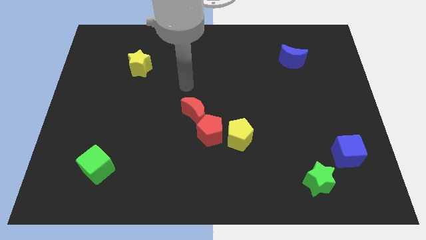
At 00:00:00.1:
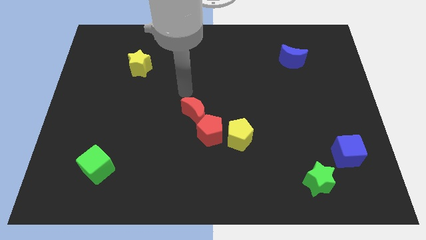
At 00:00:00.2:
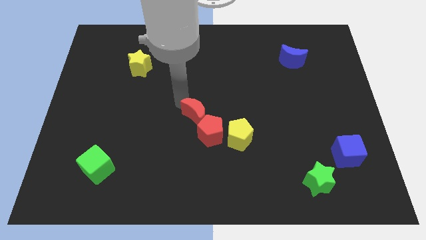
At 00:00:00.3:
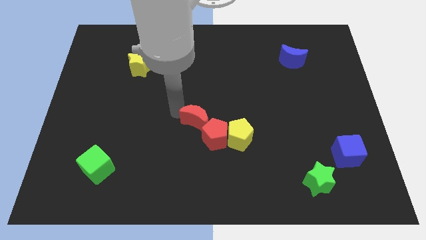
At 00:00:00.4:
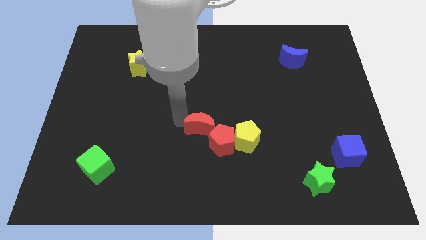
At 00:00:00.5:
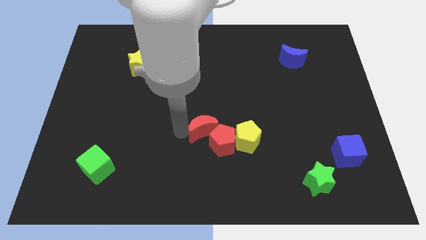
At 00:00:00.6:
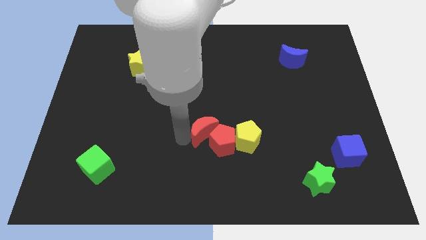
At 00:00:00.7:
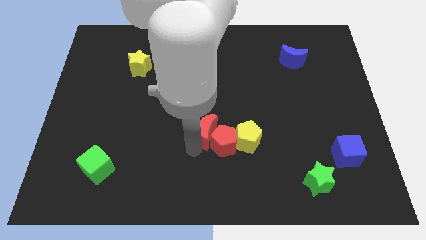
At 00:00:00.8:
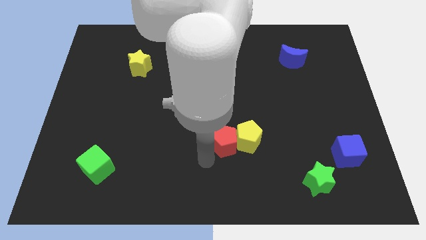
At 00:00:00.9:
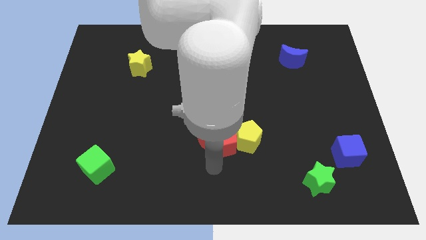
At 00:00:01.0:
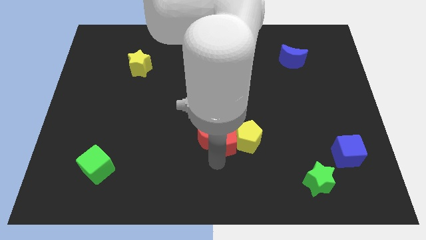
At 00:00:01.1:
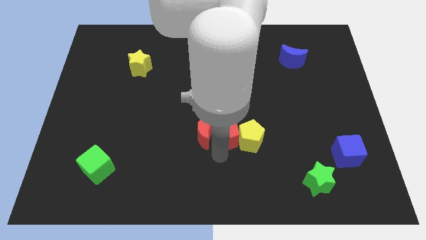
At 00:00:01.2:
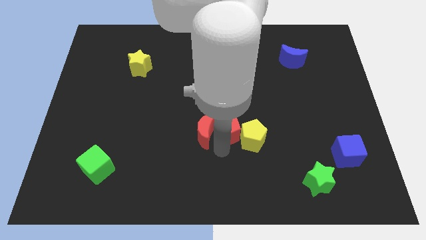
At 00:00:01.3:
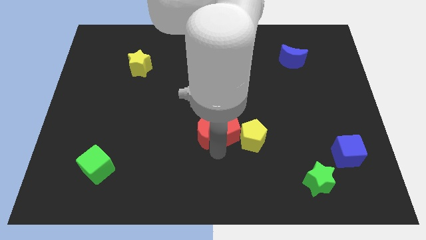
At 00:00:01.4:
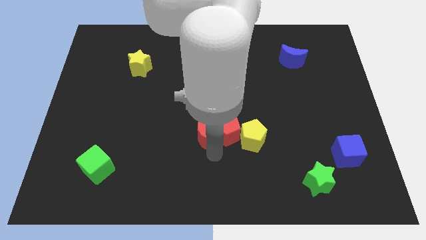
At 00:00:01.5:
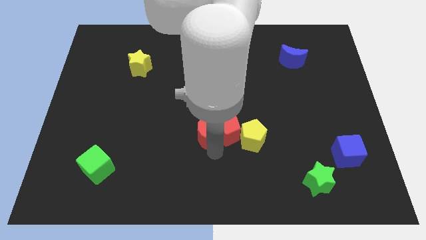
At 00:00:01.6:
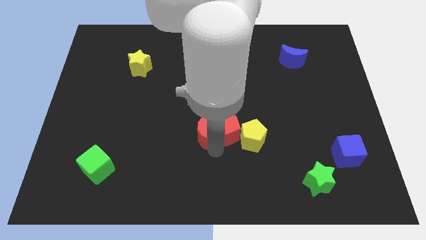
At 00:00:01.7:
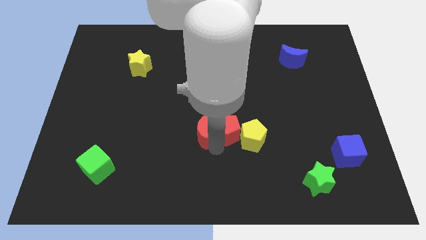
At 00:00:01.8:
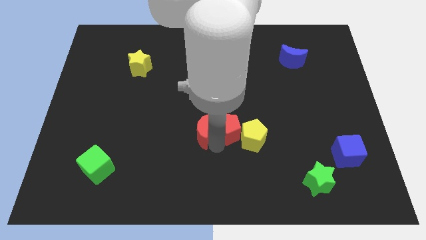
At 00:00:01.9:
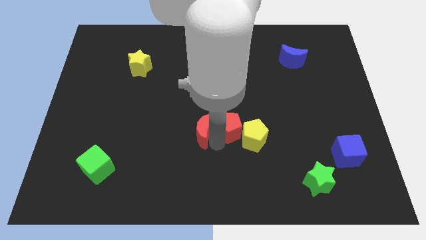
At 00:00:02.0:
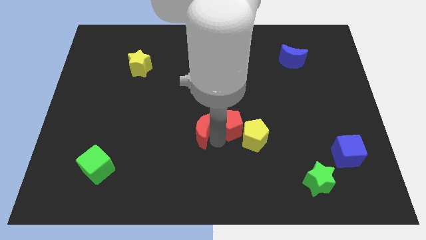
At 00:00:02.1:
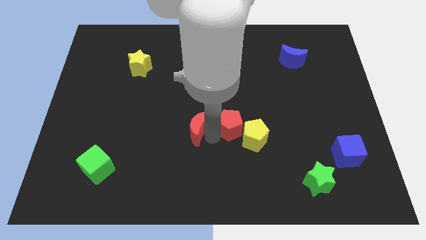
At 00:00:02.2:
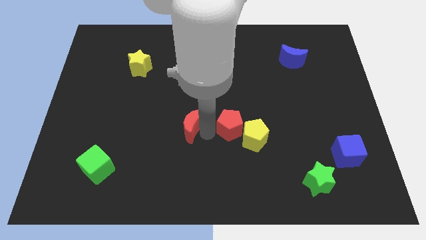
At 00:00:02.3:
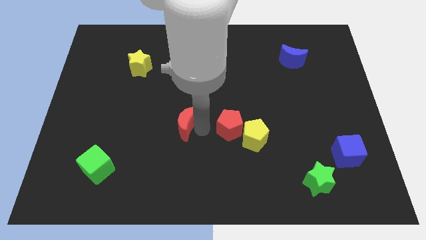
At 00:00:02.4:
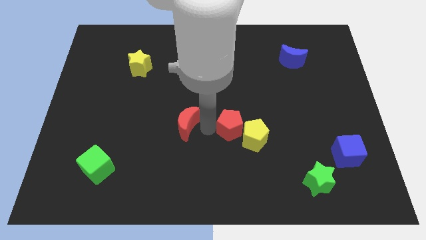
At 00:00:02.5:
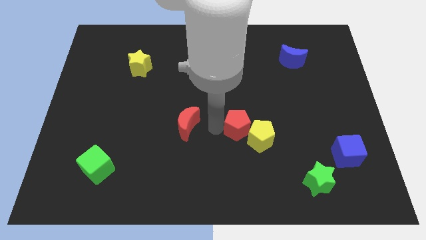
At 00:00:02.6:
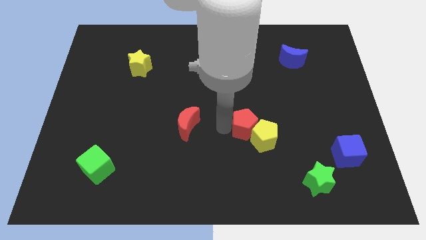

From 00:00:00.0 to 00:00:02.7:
slightly push the red pentagon to the right

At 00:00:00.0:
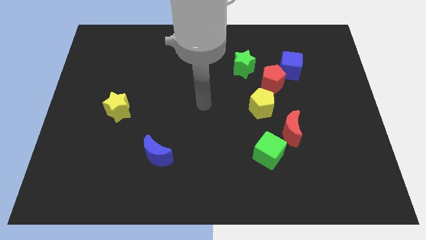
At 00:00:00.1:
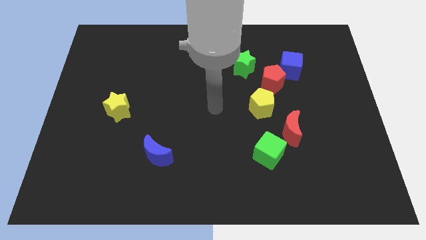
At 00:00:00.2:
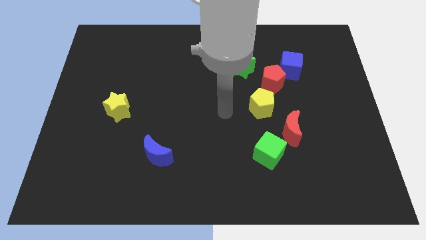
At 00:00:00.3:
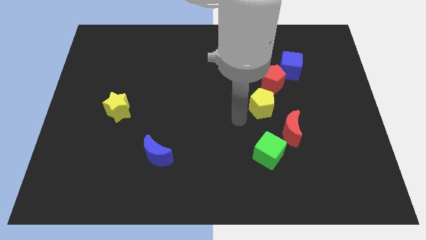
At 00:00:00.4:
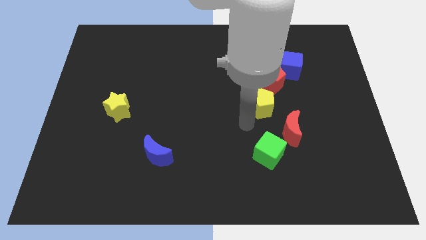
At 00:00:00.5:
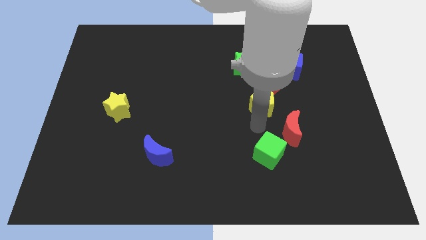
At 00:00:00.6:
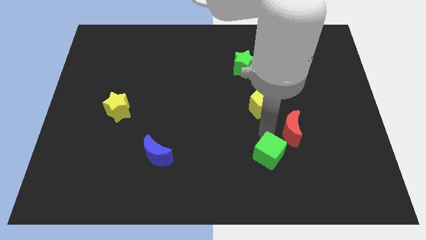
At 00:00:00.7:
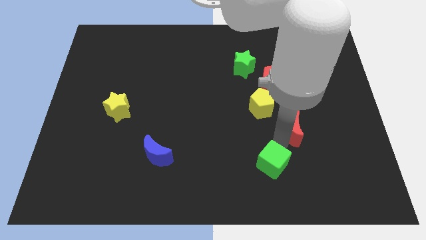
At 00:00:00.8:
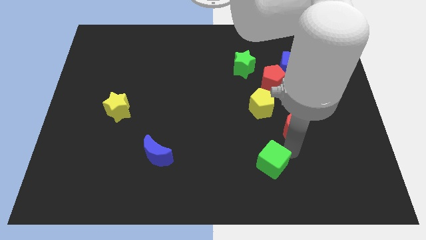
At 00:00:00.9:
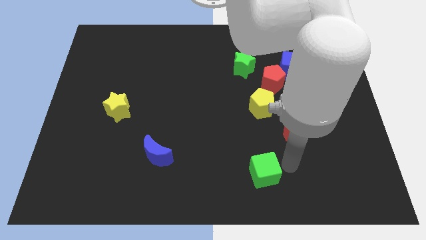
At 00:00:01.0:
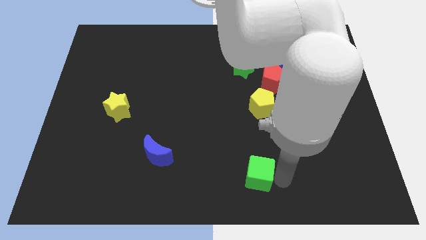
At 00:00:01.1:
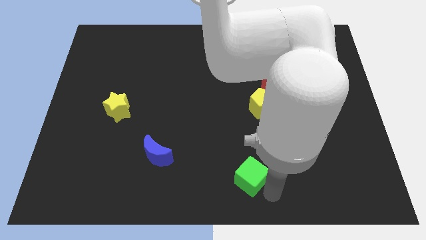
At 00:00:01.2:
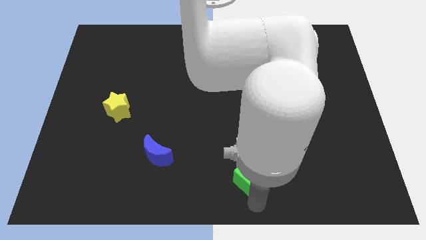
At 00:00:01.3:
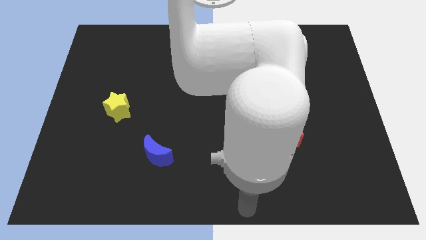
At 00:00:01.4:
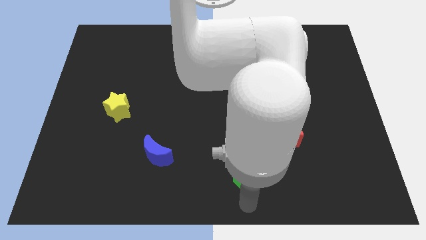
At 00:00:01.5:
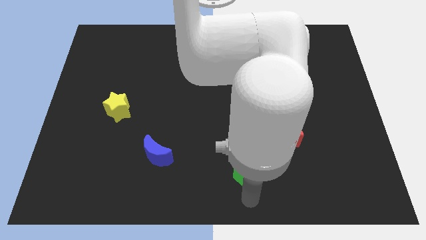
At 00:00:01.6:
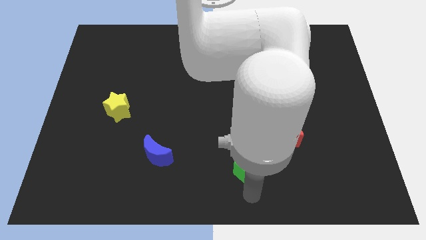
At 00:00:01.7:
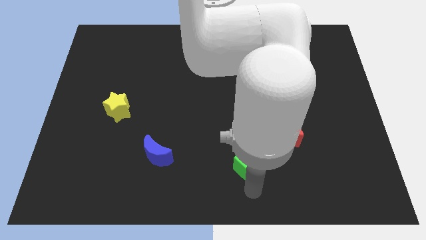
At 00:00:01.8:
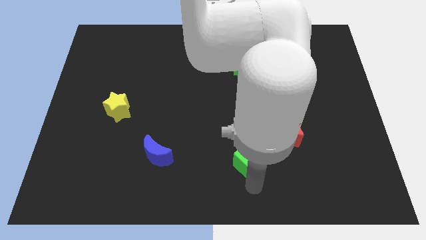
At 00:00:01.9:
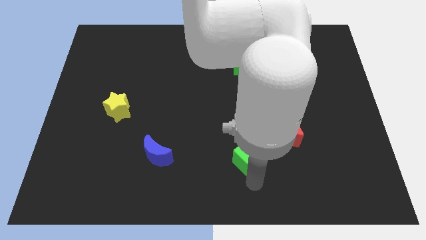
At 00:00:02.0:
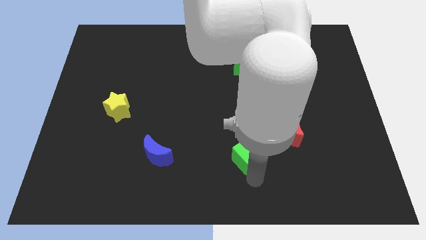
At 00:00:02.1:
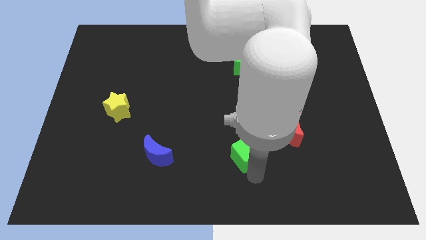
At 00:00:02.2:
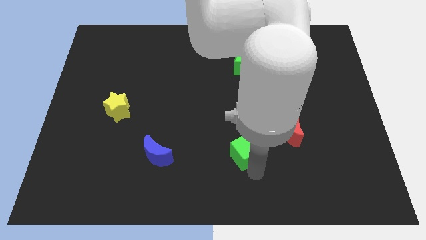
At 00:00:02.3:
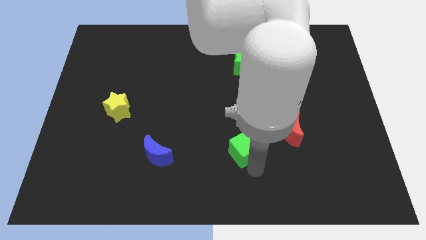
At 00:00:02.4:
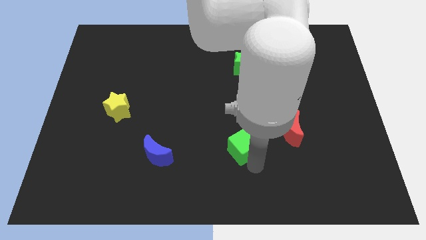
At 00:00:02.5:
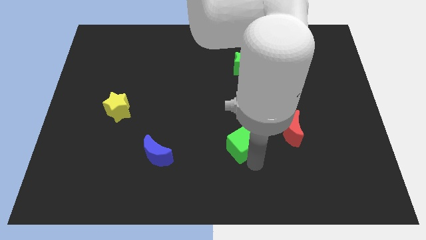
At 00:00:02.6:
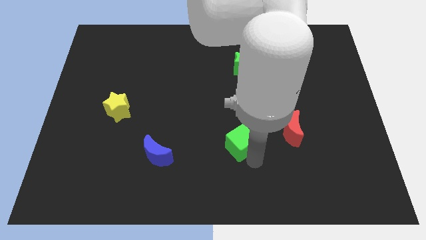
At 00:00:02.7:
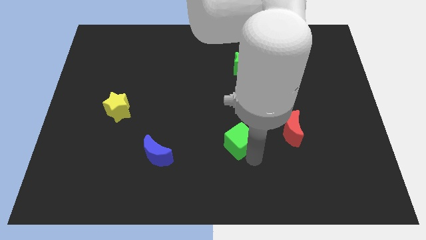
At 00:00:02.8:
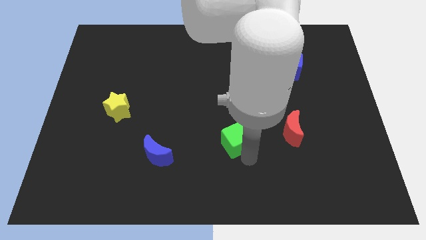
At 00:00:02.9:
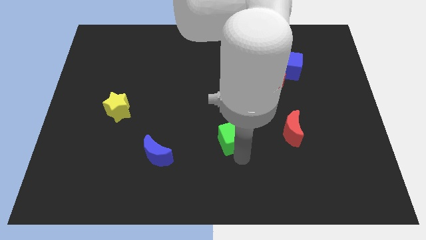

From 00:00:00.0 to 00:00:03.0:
slightly push the green cube up and then left

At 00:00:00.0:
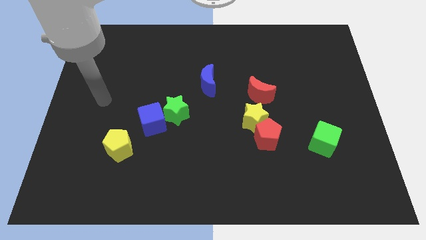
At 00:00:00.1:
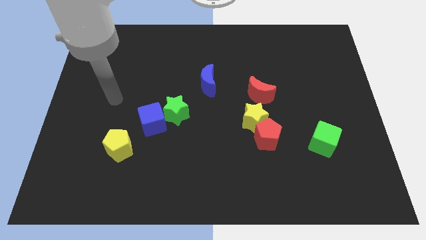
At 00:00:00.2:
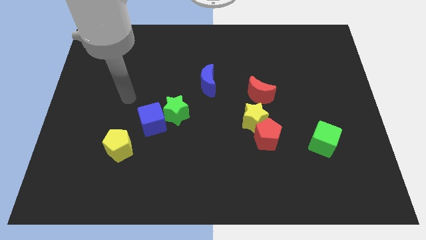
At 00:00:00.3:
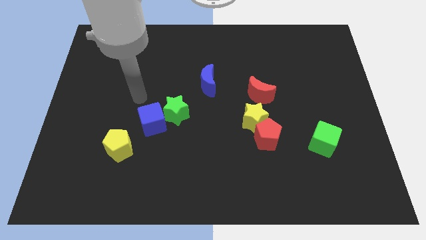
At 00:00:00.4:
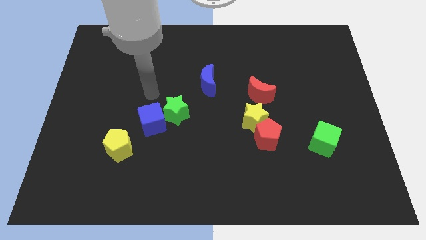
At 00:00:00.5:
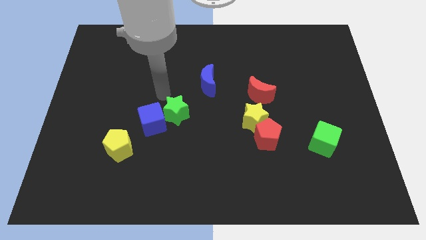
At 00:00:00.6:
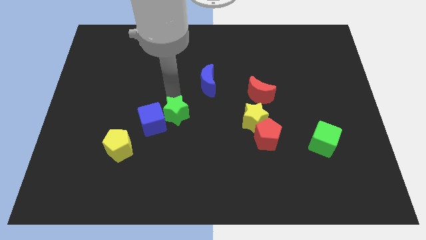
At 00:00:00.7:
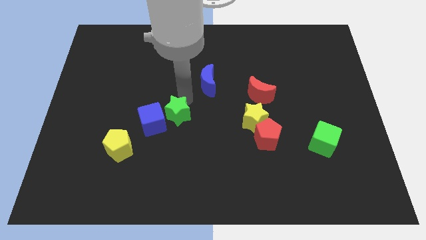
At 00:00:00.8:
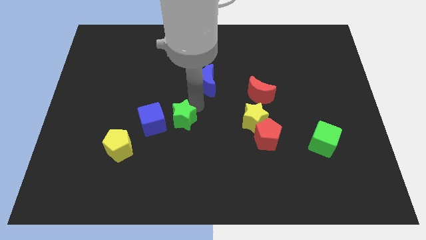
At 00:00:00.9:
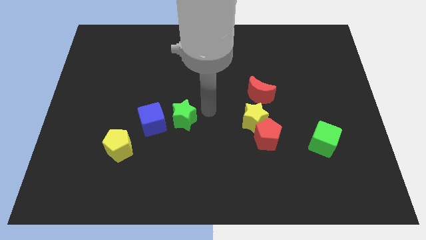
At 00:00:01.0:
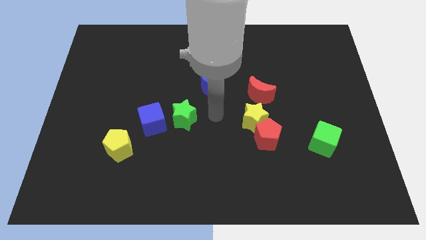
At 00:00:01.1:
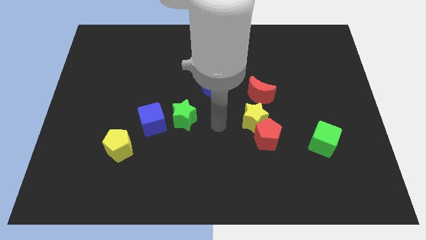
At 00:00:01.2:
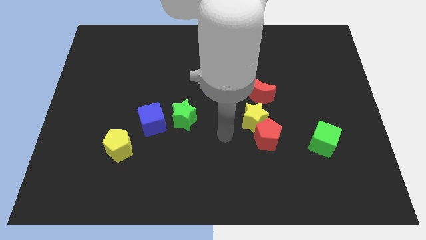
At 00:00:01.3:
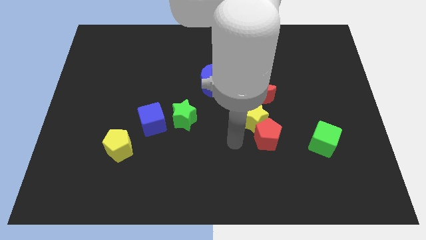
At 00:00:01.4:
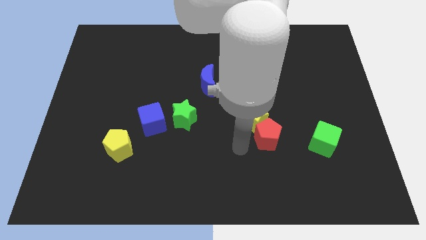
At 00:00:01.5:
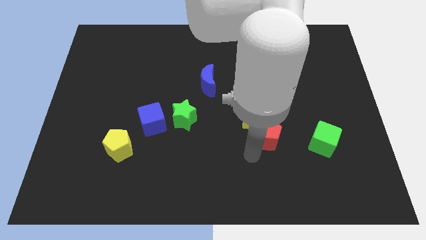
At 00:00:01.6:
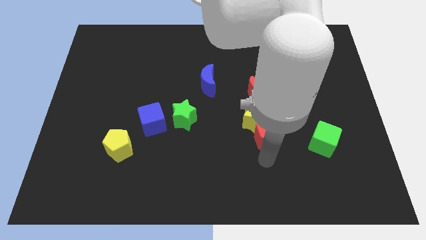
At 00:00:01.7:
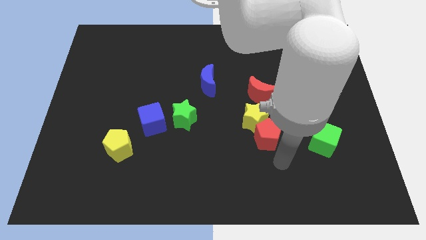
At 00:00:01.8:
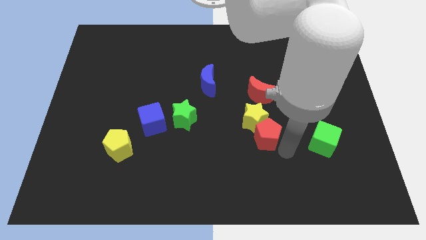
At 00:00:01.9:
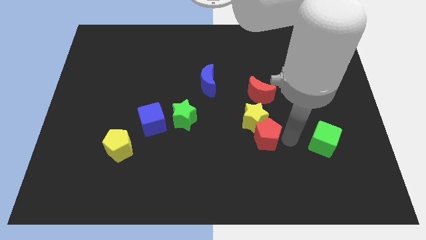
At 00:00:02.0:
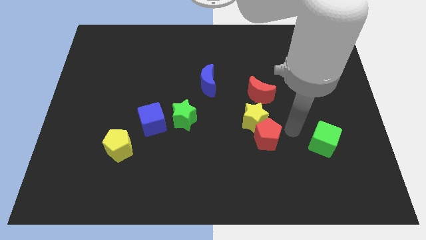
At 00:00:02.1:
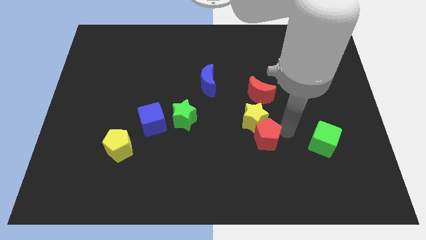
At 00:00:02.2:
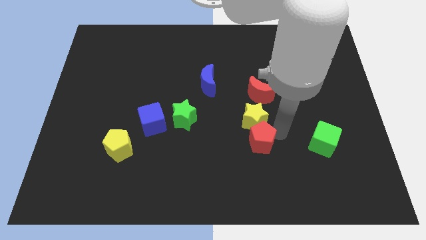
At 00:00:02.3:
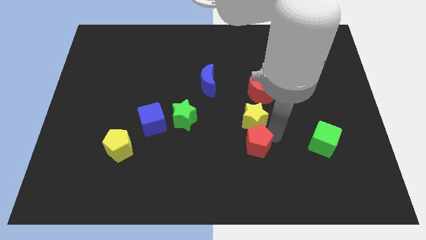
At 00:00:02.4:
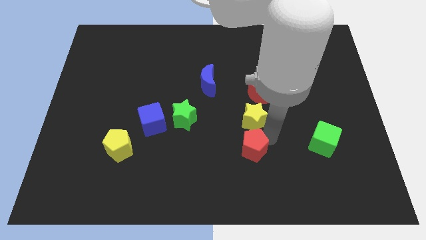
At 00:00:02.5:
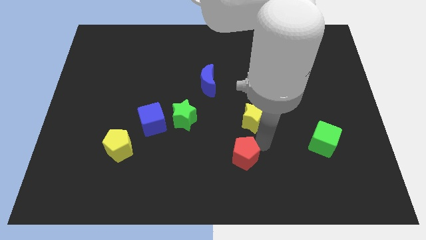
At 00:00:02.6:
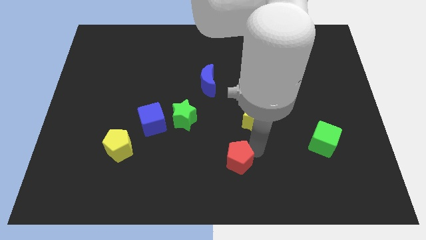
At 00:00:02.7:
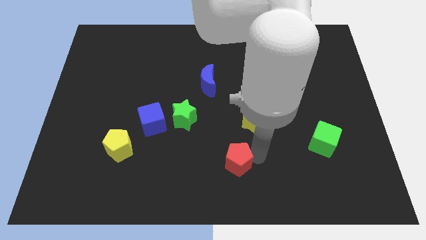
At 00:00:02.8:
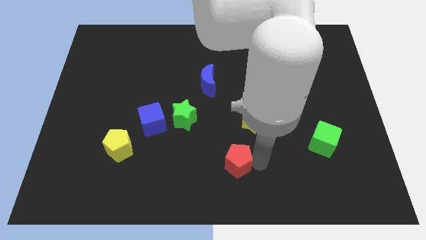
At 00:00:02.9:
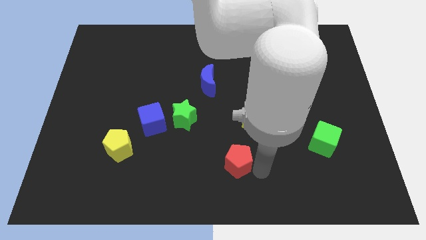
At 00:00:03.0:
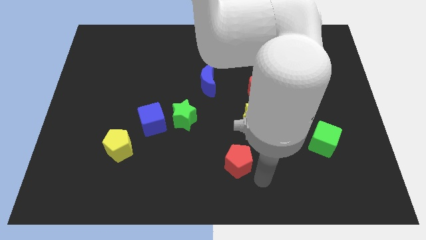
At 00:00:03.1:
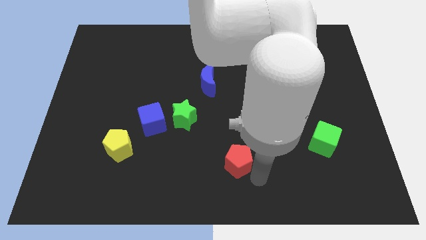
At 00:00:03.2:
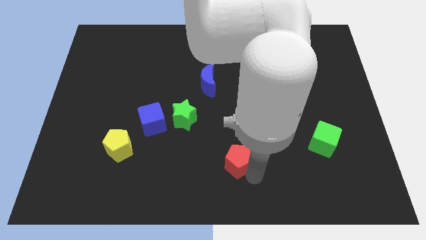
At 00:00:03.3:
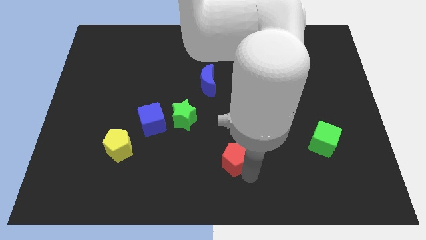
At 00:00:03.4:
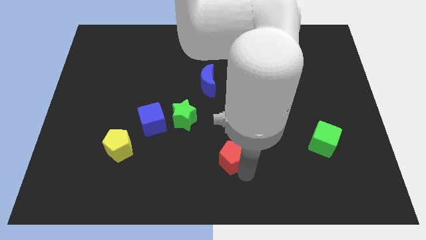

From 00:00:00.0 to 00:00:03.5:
move the red pentagon a little bit left
